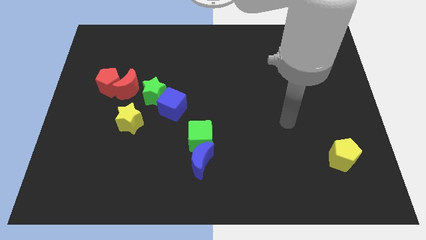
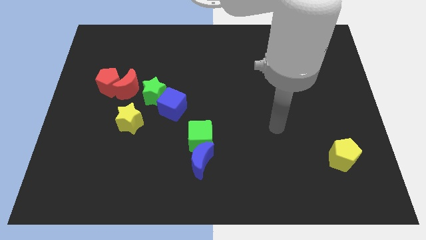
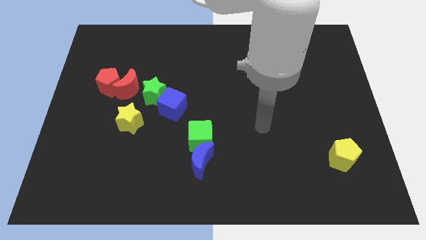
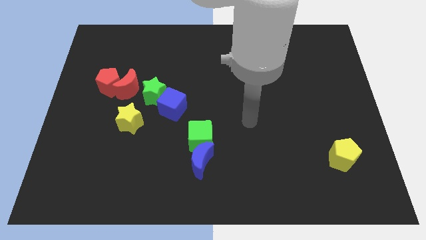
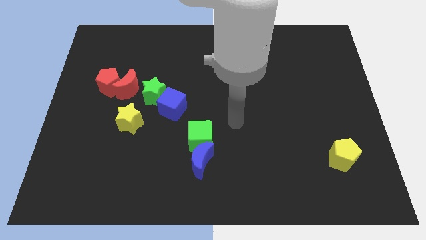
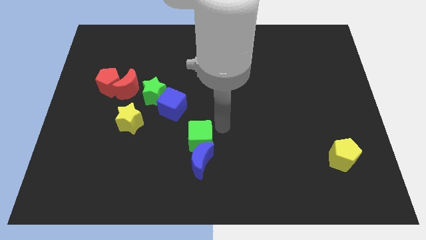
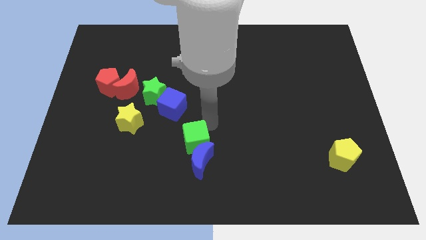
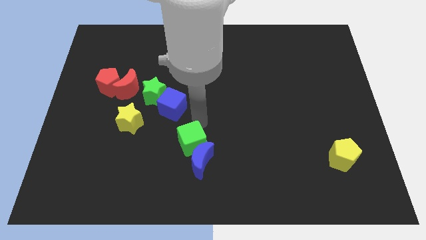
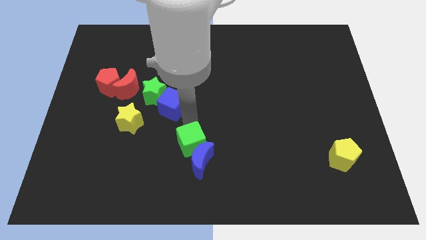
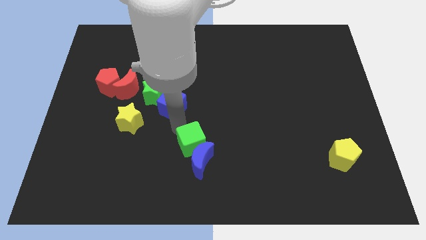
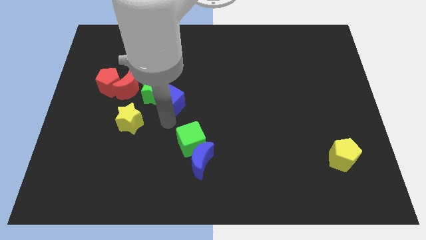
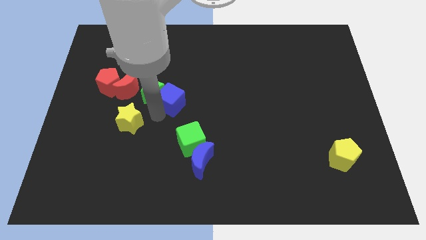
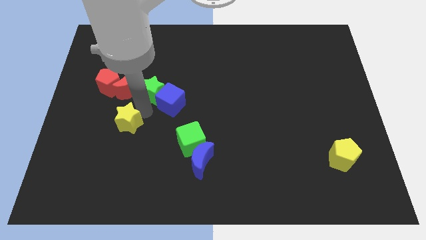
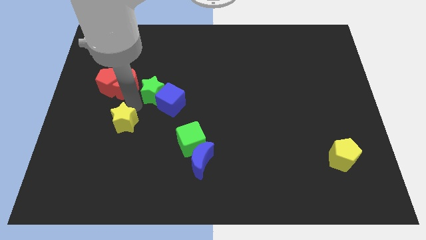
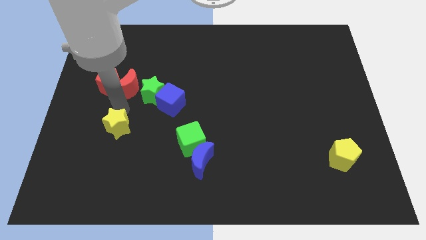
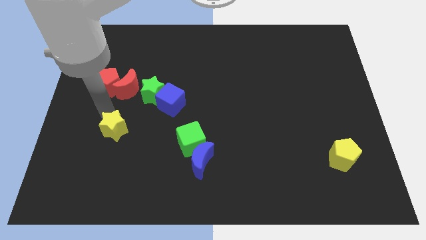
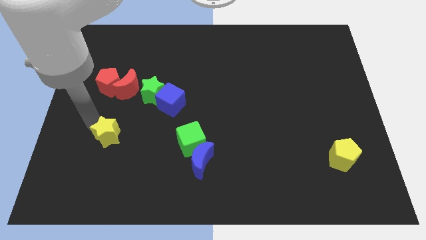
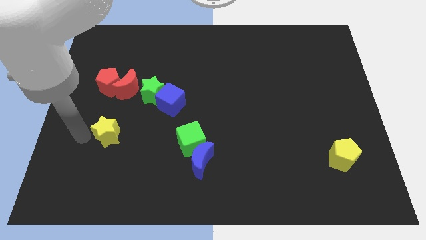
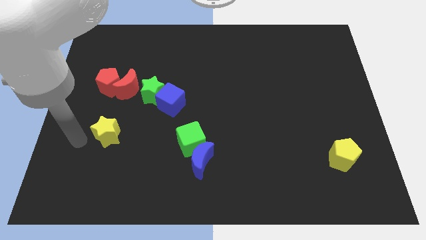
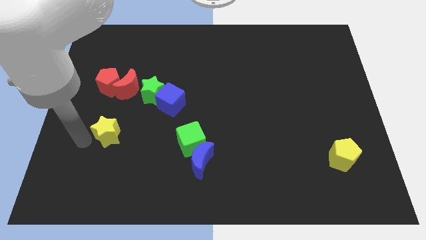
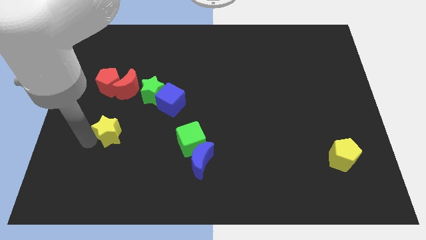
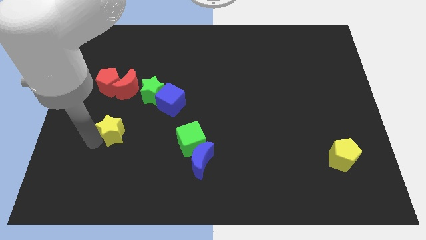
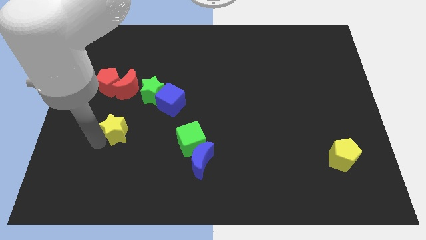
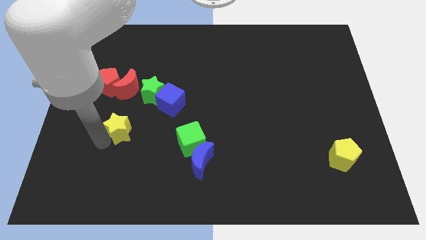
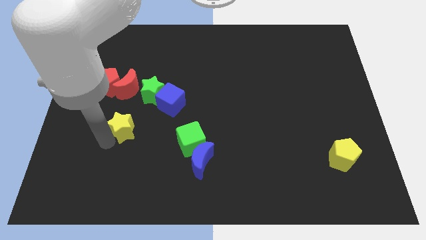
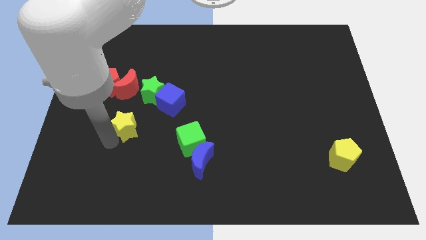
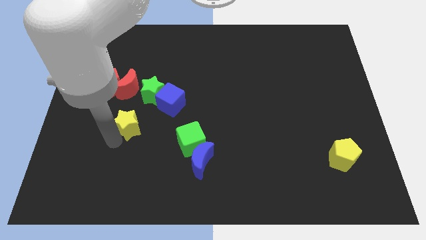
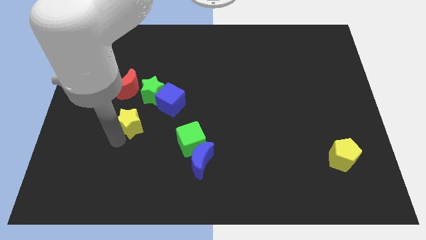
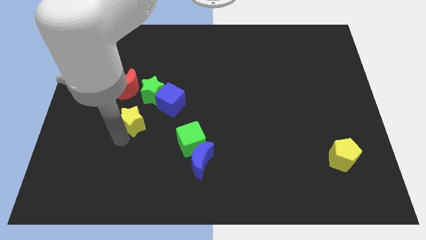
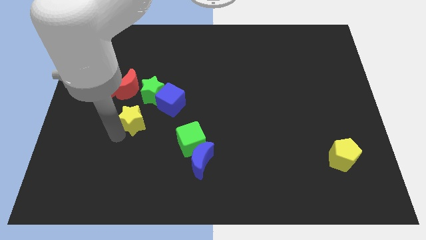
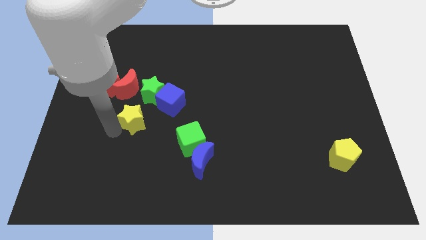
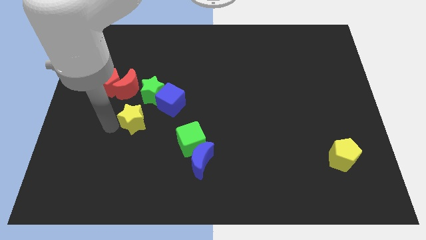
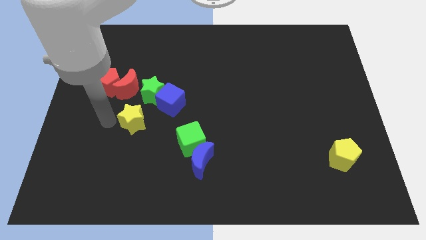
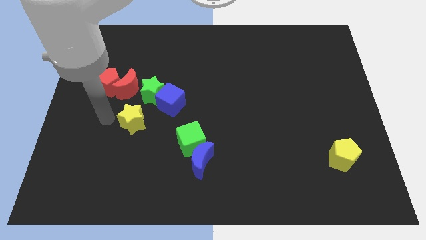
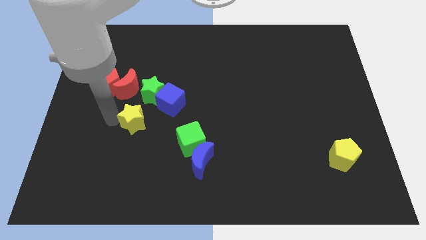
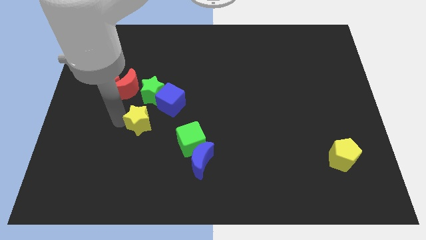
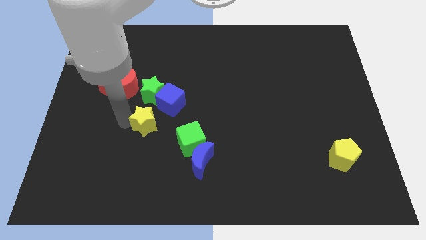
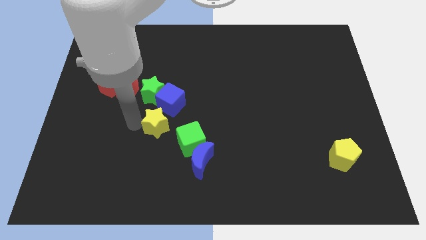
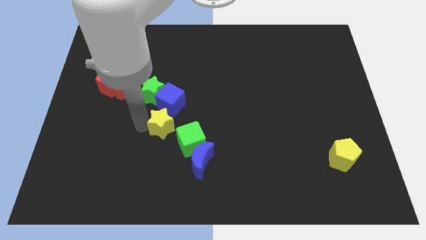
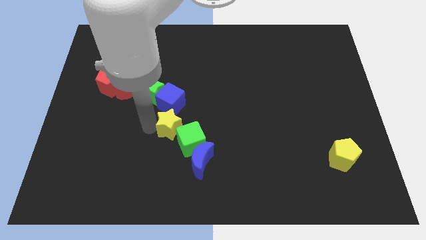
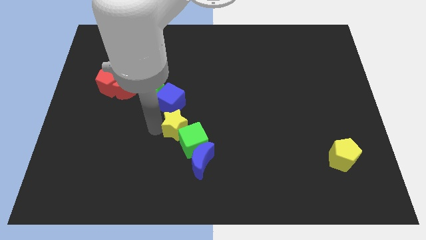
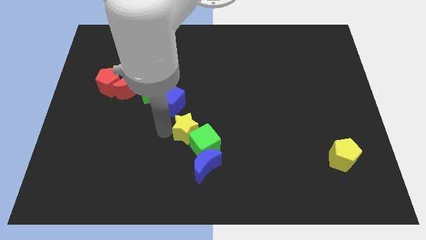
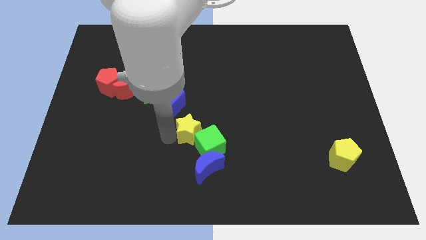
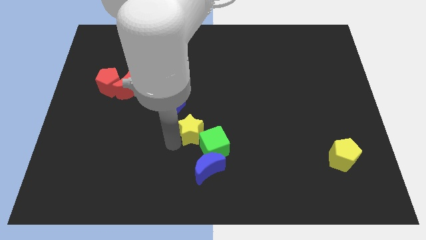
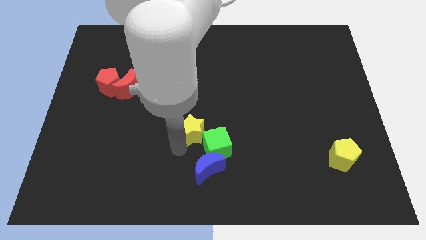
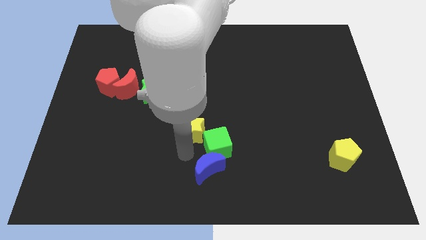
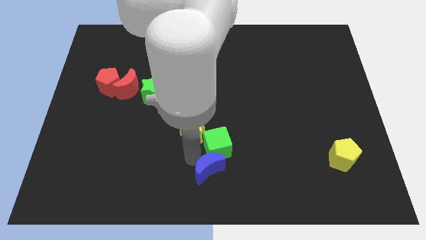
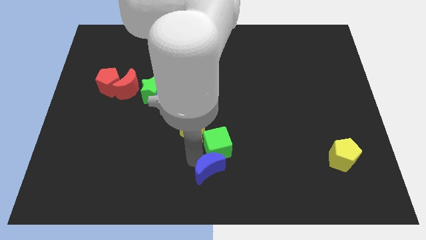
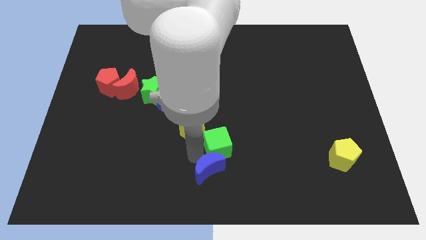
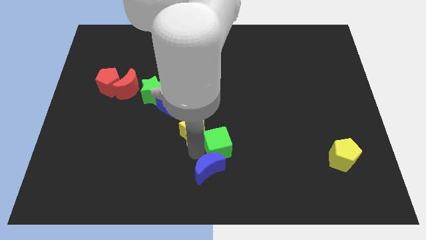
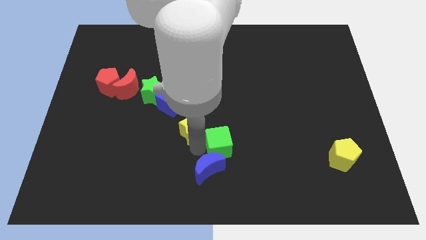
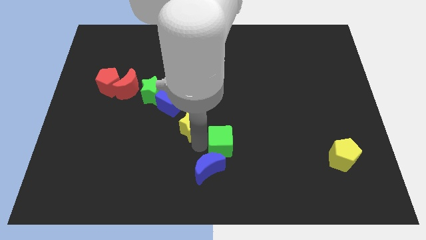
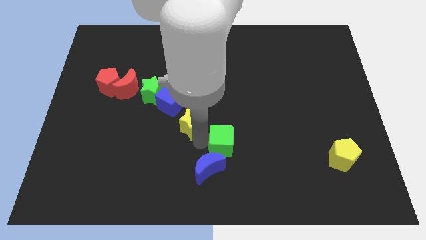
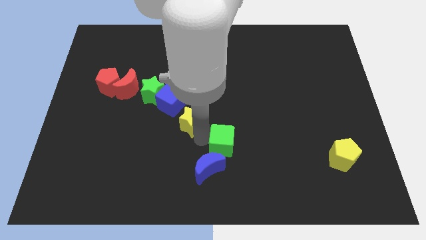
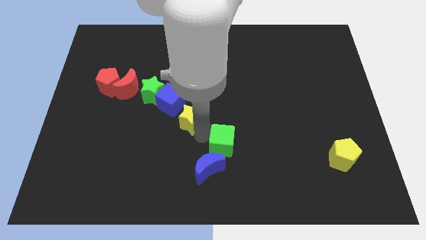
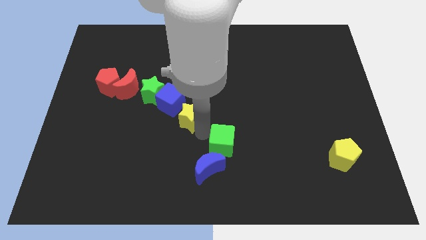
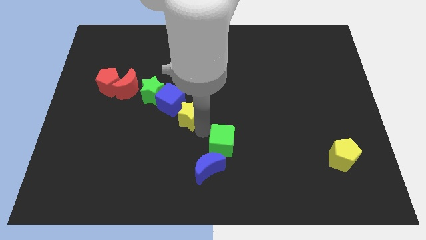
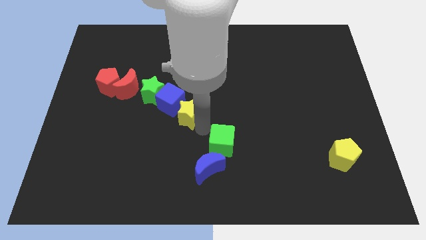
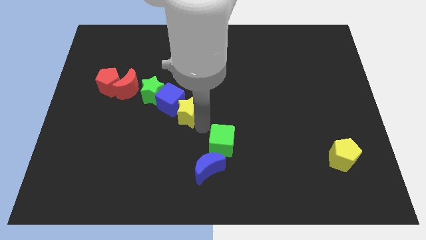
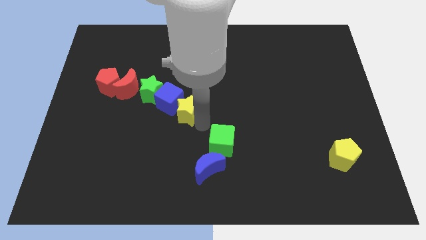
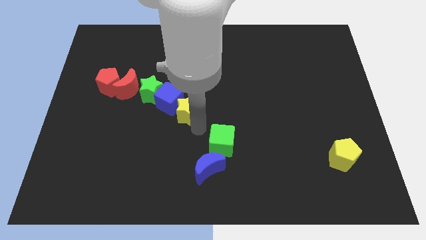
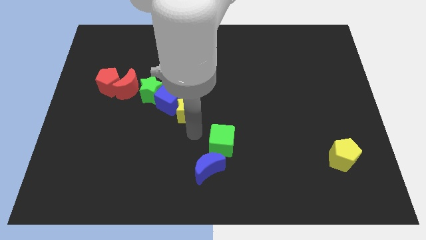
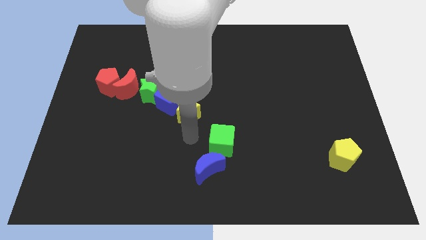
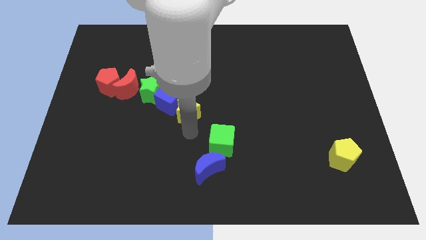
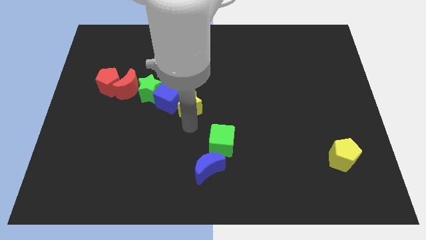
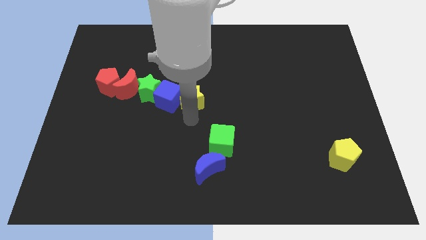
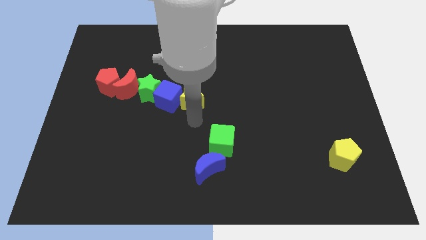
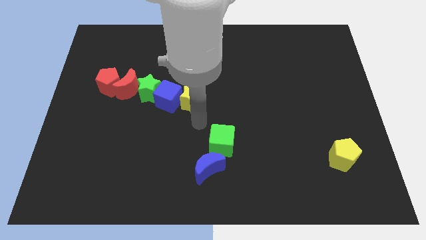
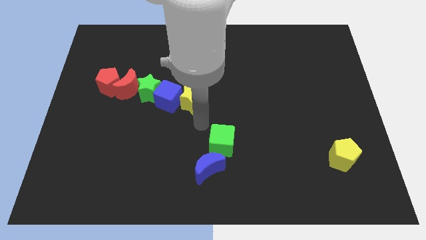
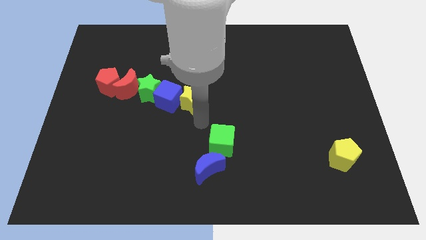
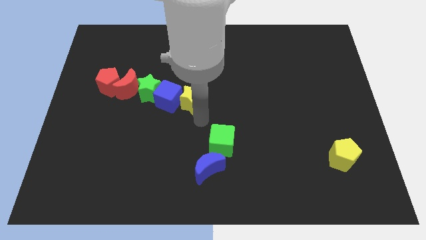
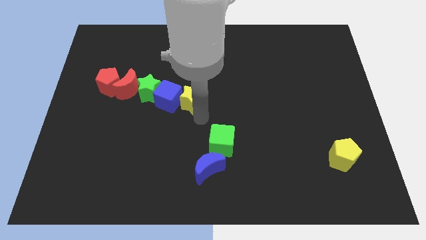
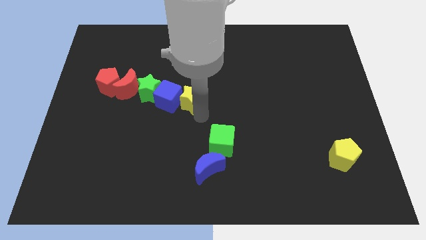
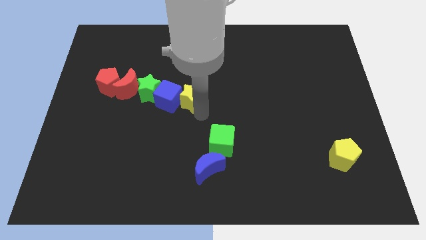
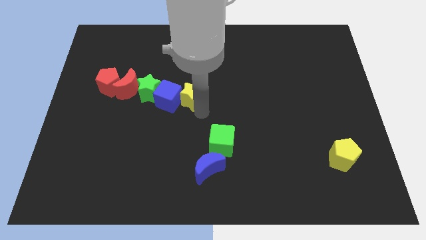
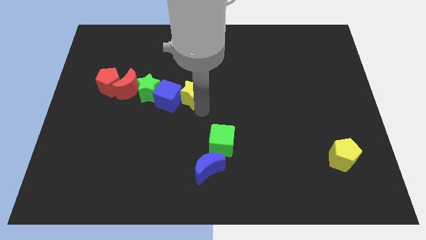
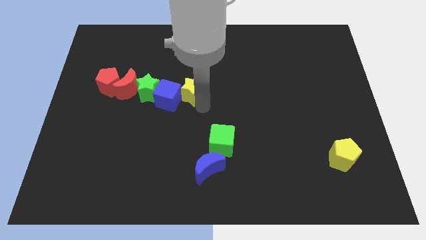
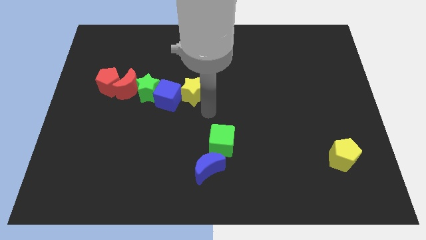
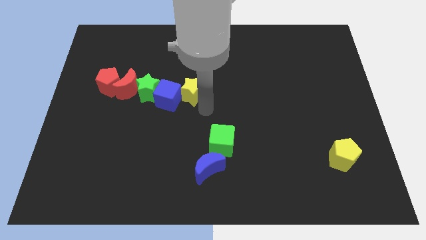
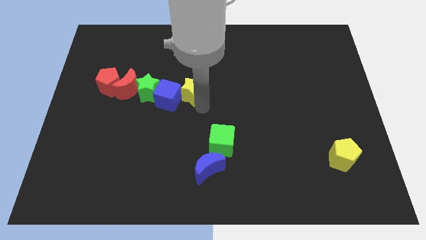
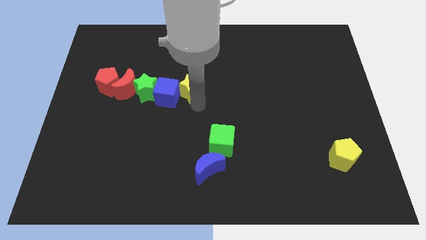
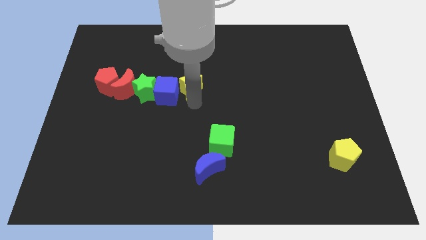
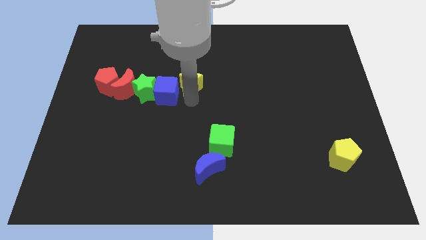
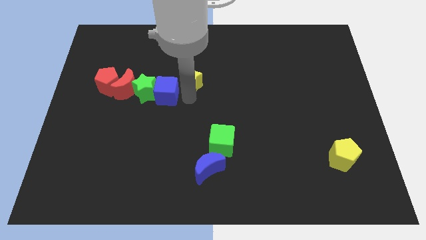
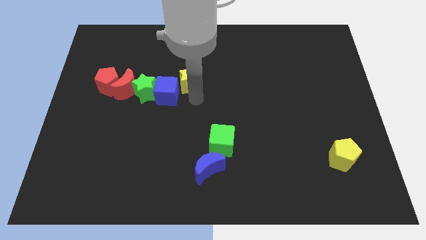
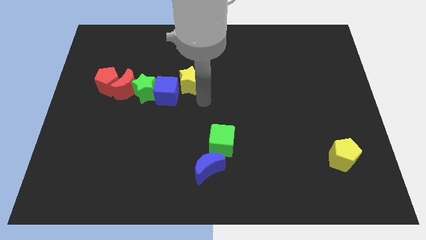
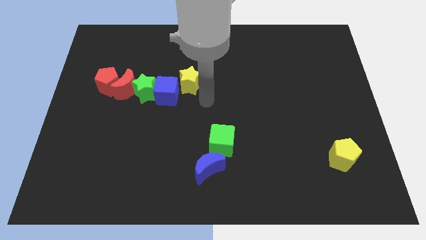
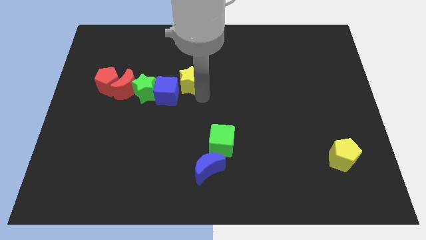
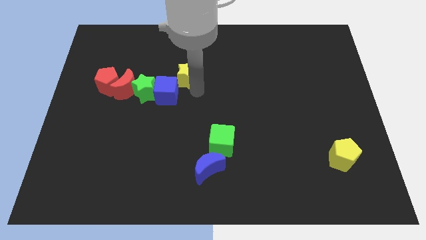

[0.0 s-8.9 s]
slide the yellow star to the top of the blue cube
